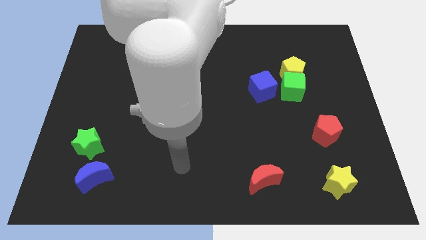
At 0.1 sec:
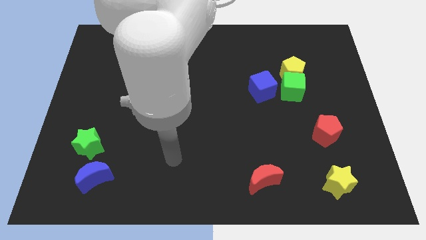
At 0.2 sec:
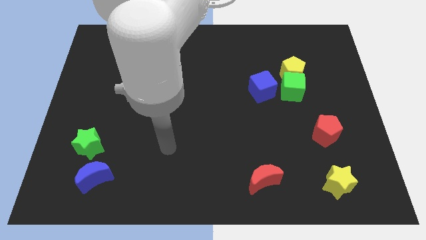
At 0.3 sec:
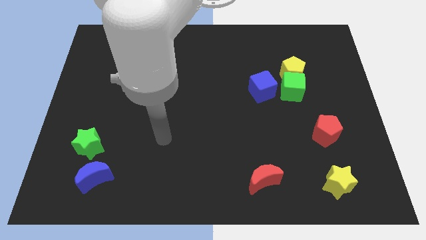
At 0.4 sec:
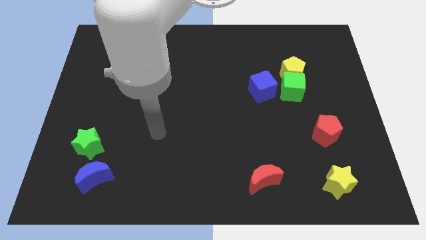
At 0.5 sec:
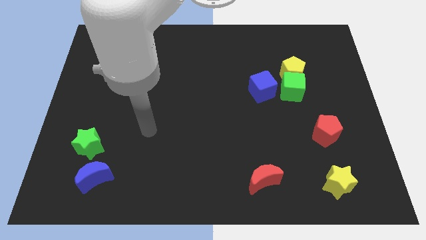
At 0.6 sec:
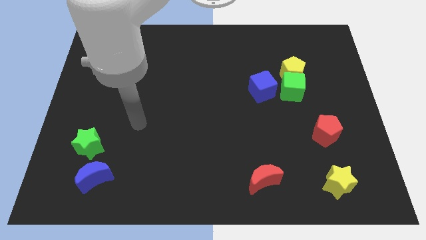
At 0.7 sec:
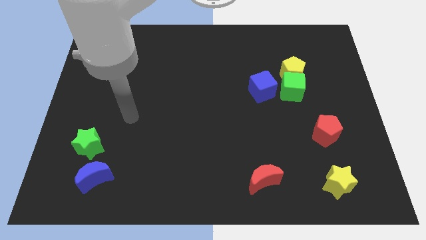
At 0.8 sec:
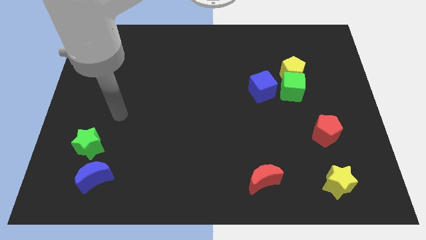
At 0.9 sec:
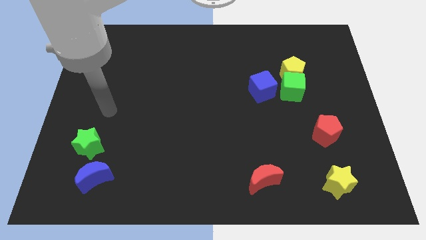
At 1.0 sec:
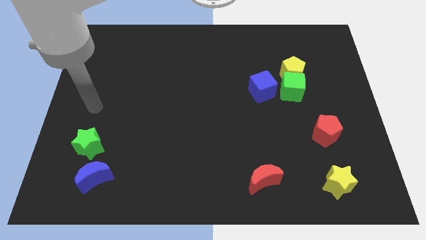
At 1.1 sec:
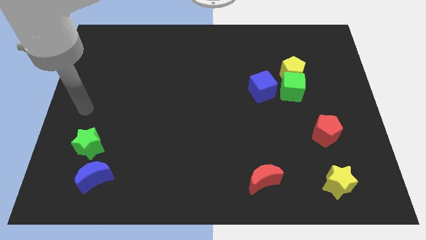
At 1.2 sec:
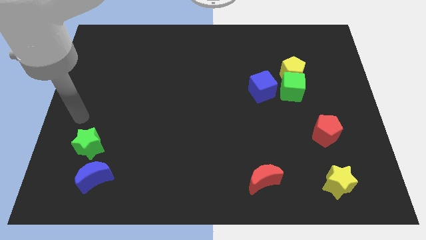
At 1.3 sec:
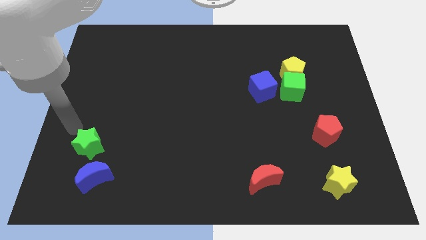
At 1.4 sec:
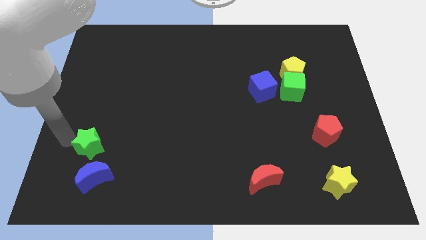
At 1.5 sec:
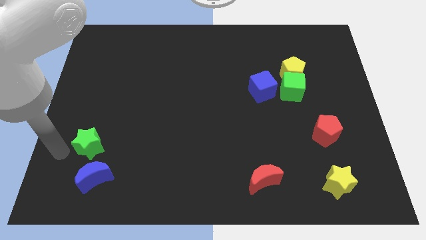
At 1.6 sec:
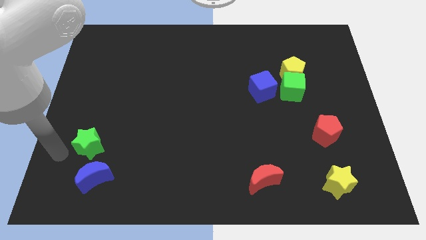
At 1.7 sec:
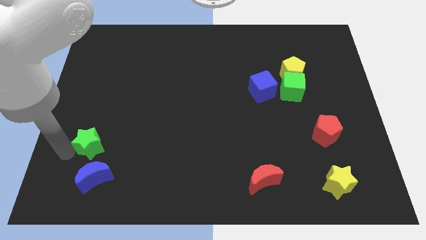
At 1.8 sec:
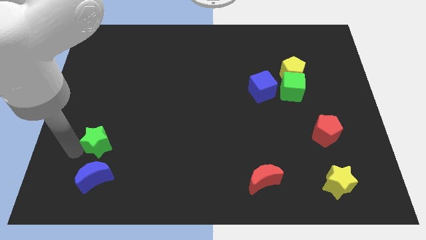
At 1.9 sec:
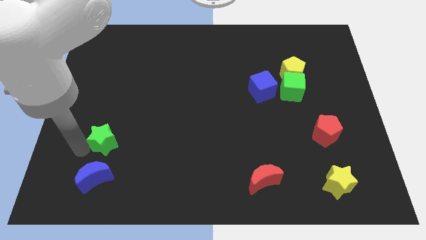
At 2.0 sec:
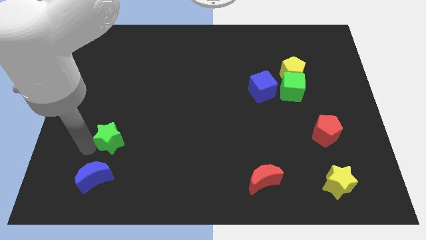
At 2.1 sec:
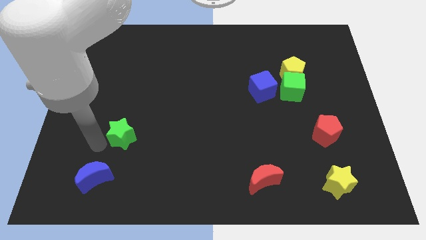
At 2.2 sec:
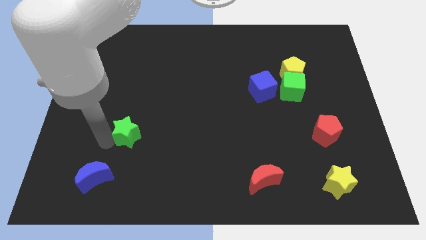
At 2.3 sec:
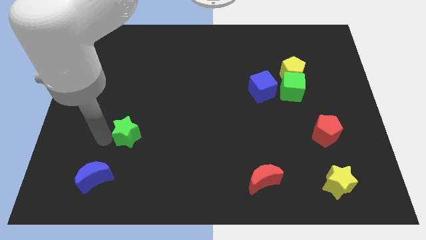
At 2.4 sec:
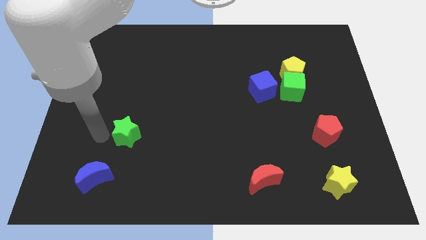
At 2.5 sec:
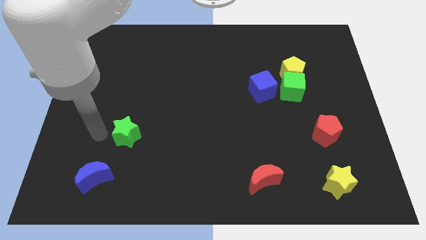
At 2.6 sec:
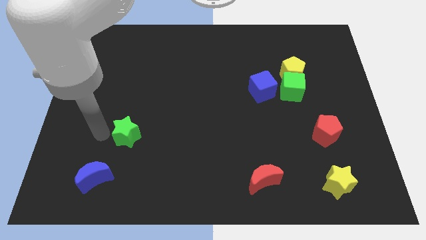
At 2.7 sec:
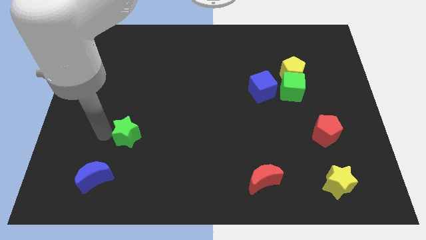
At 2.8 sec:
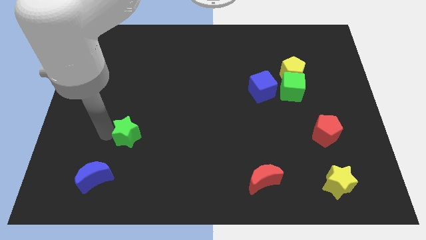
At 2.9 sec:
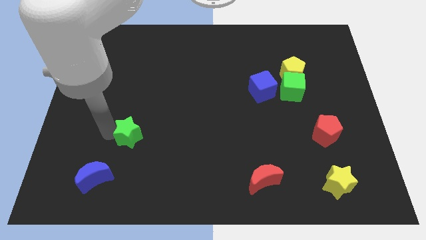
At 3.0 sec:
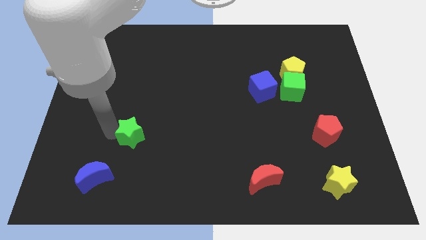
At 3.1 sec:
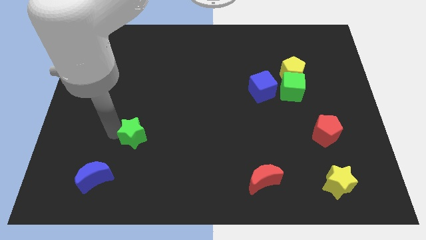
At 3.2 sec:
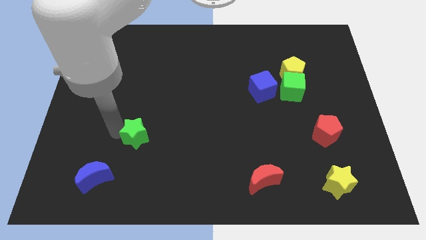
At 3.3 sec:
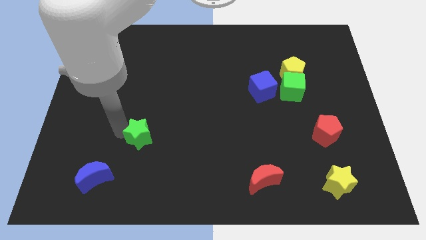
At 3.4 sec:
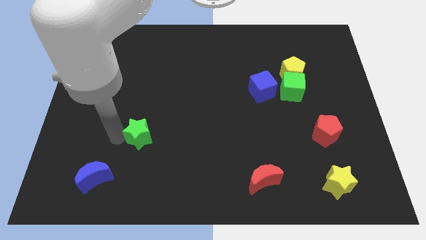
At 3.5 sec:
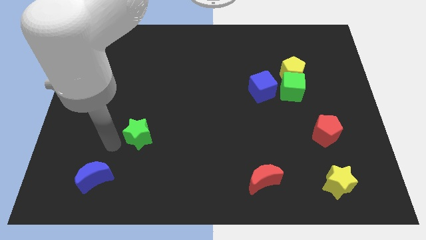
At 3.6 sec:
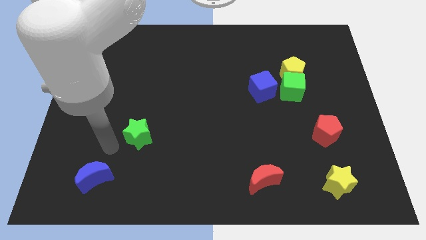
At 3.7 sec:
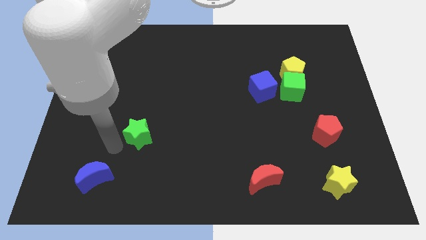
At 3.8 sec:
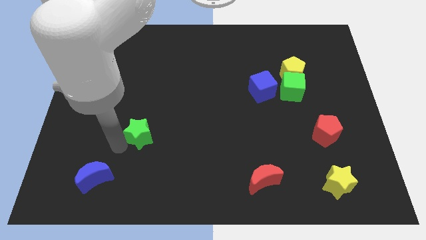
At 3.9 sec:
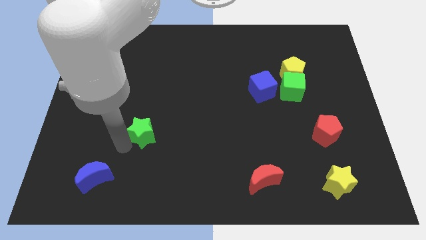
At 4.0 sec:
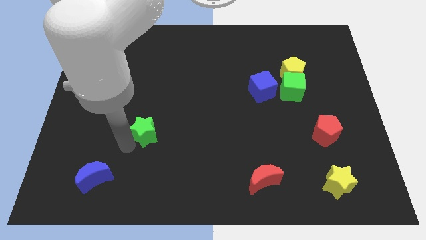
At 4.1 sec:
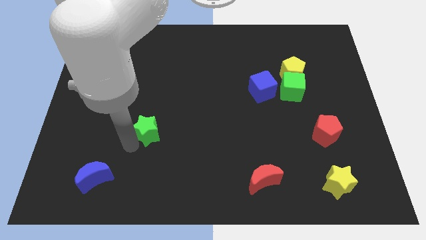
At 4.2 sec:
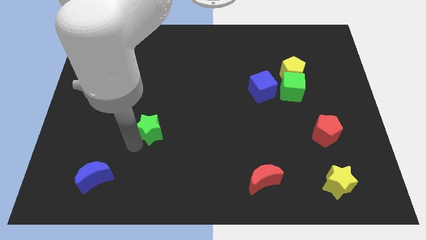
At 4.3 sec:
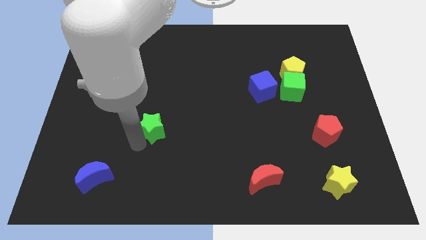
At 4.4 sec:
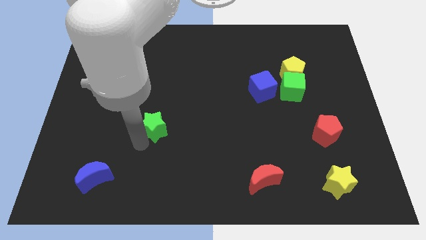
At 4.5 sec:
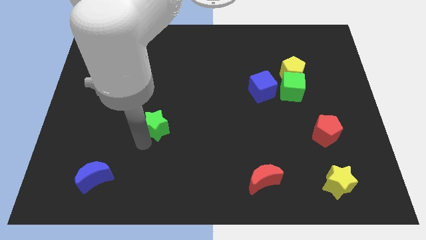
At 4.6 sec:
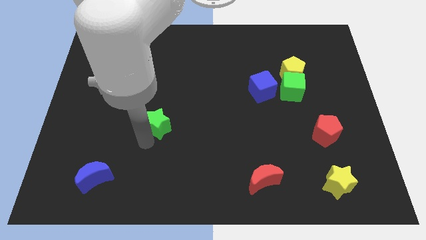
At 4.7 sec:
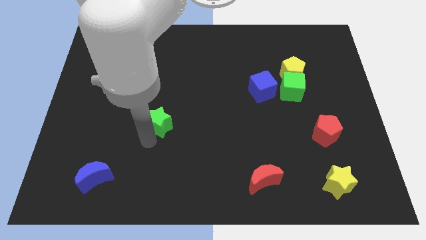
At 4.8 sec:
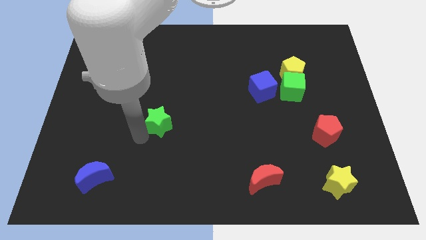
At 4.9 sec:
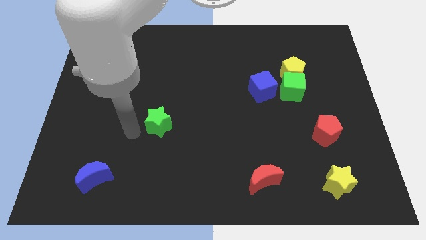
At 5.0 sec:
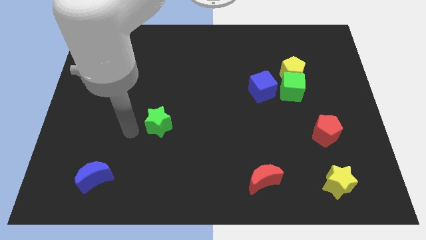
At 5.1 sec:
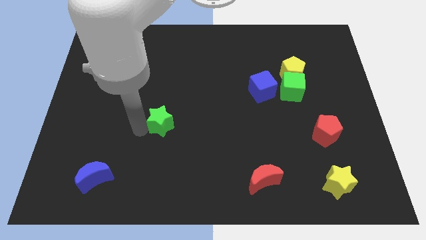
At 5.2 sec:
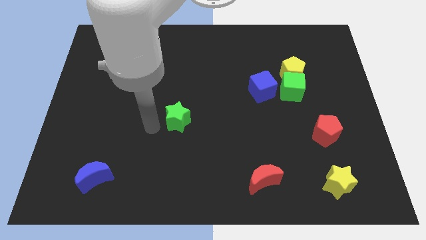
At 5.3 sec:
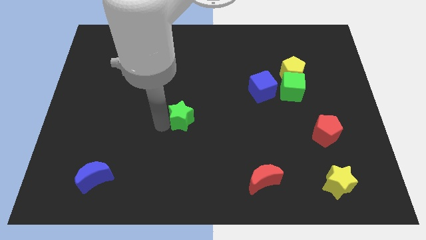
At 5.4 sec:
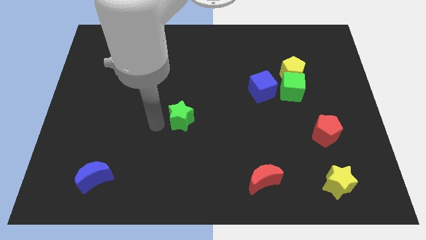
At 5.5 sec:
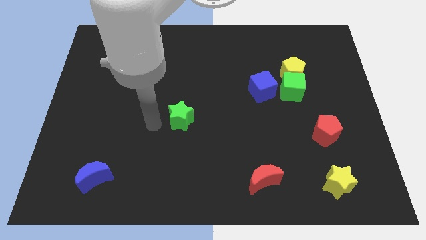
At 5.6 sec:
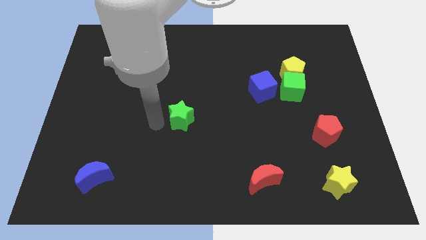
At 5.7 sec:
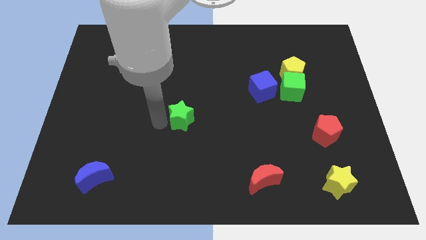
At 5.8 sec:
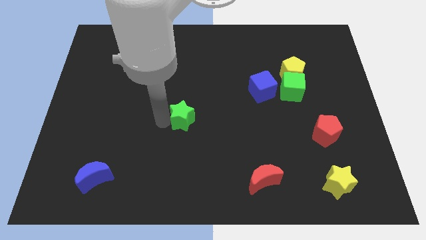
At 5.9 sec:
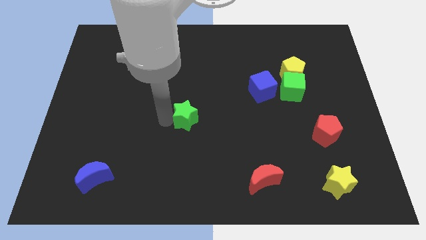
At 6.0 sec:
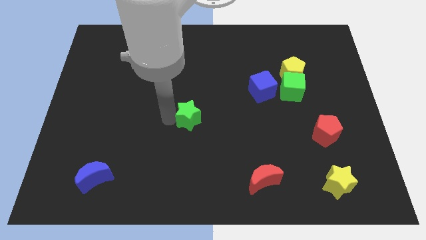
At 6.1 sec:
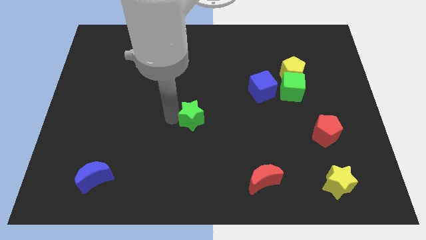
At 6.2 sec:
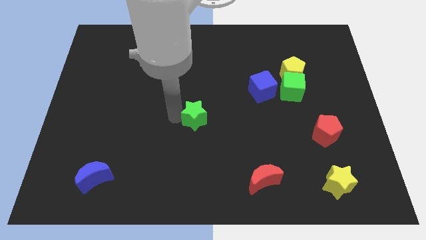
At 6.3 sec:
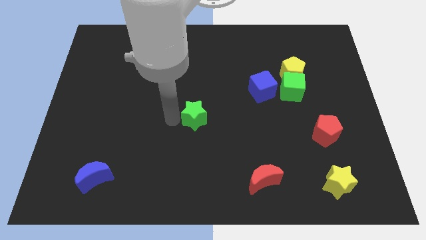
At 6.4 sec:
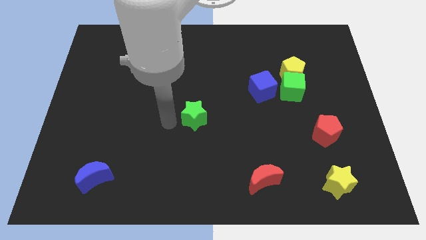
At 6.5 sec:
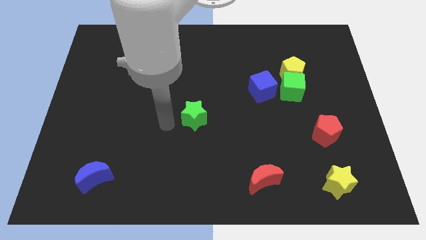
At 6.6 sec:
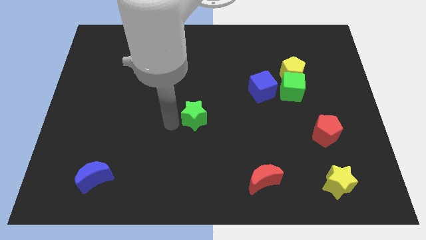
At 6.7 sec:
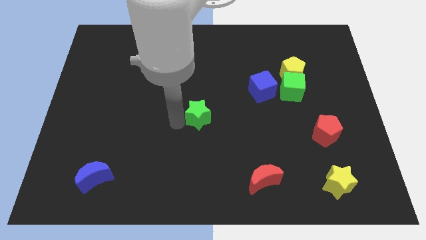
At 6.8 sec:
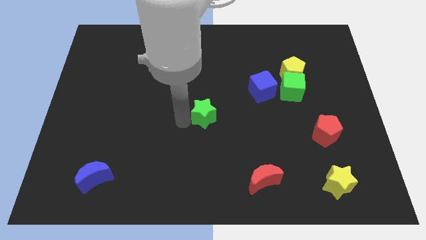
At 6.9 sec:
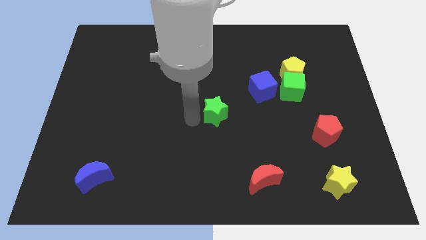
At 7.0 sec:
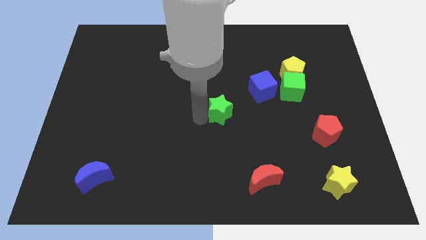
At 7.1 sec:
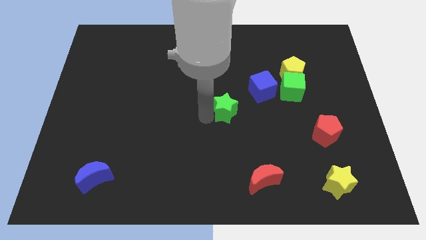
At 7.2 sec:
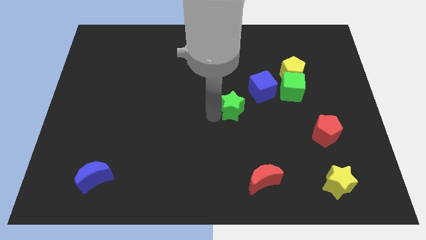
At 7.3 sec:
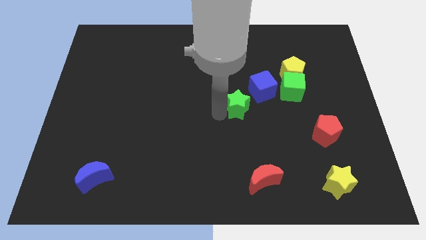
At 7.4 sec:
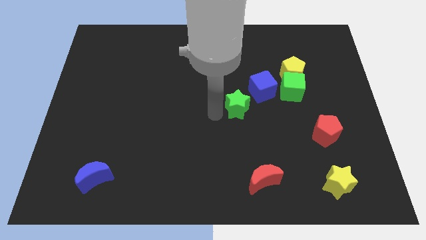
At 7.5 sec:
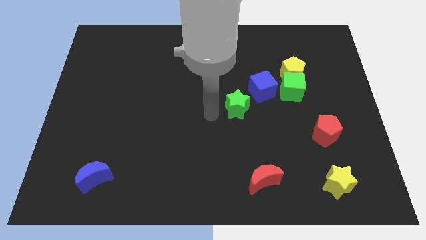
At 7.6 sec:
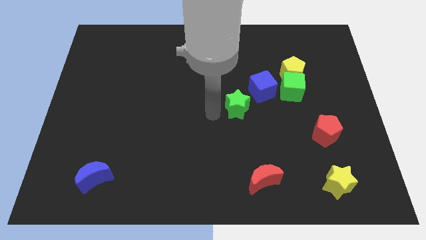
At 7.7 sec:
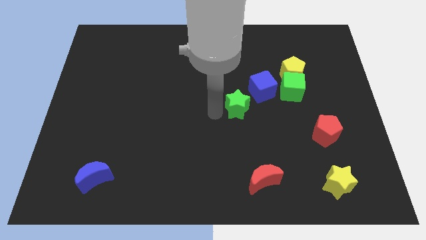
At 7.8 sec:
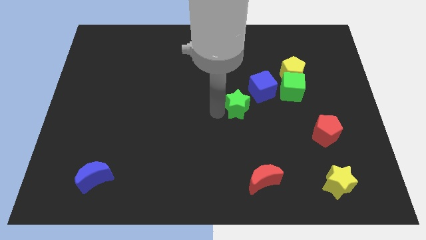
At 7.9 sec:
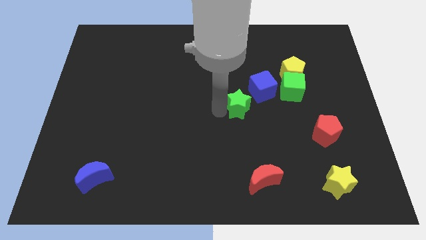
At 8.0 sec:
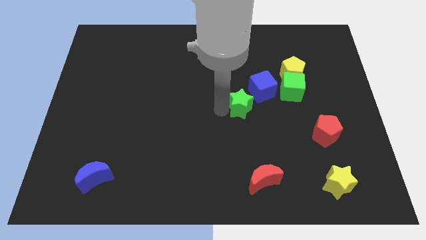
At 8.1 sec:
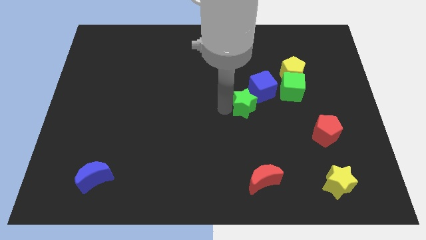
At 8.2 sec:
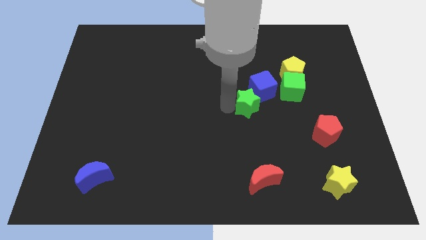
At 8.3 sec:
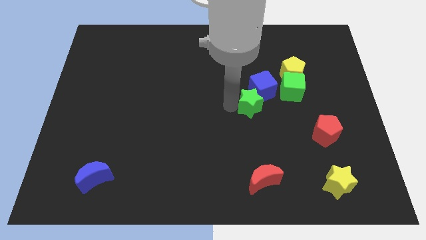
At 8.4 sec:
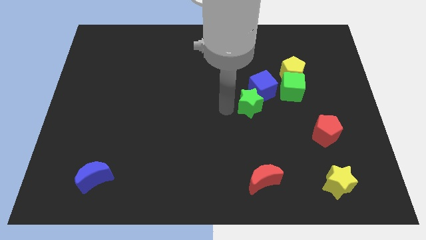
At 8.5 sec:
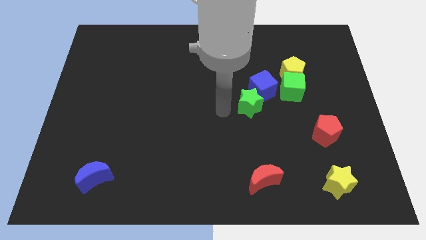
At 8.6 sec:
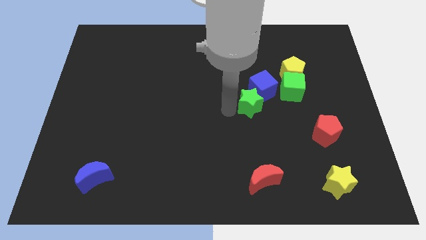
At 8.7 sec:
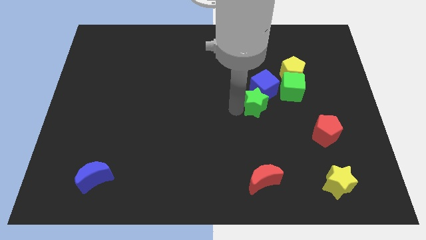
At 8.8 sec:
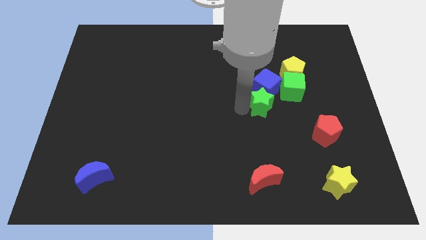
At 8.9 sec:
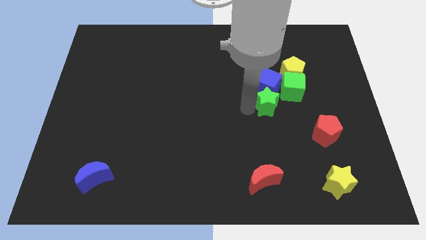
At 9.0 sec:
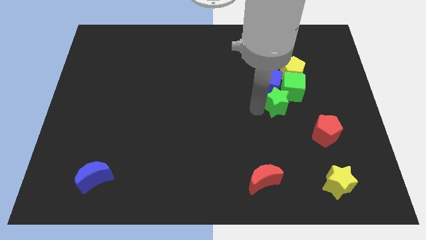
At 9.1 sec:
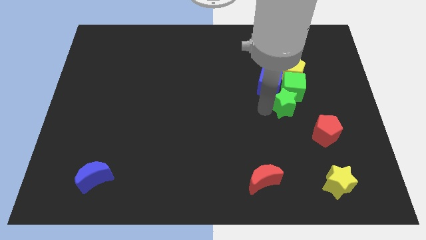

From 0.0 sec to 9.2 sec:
slide the green star towards the green cube
